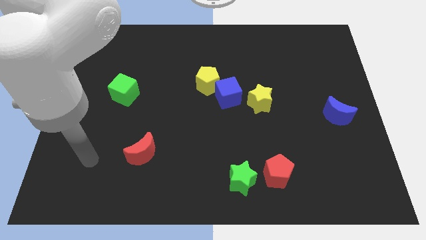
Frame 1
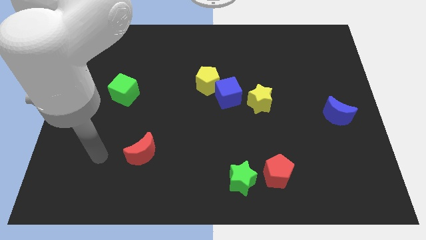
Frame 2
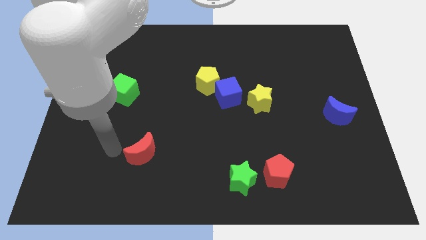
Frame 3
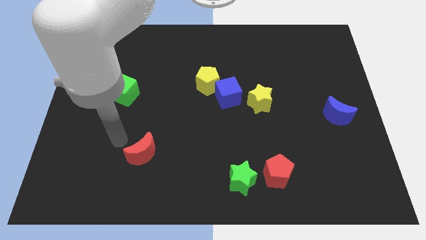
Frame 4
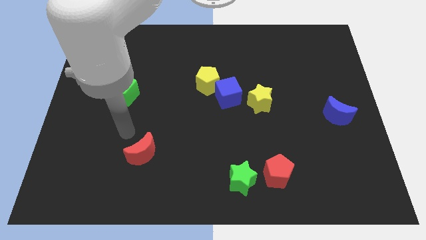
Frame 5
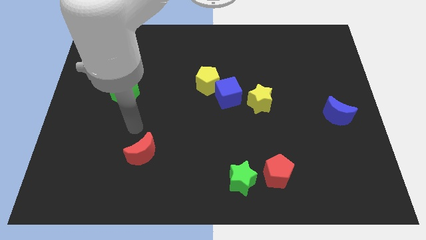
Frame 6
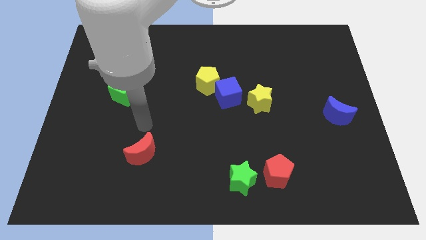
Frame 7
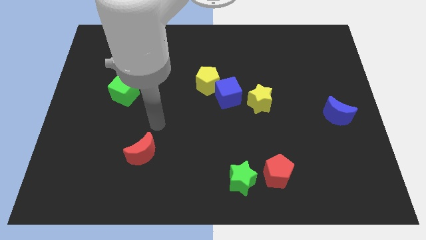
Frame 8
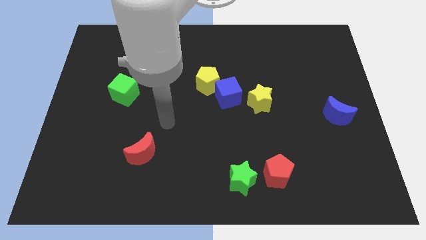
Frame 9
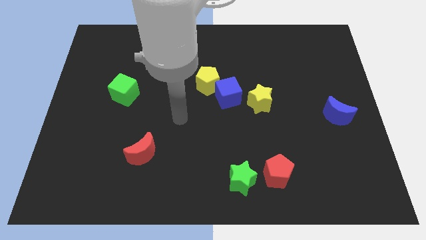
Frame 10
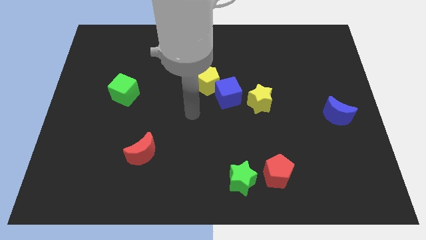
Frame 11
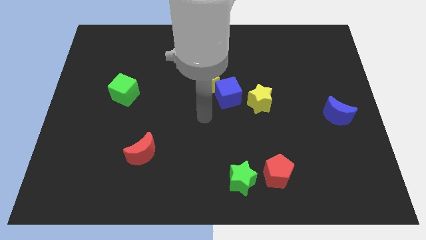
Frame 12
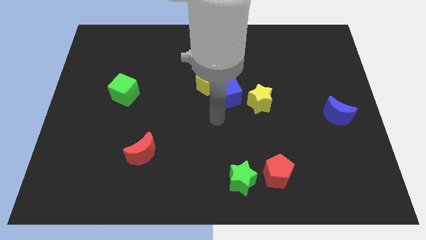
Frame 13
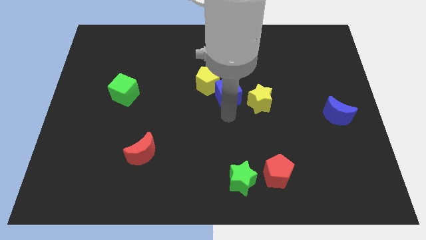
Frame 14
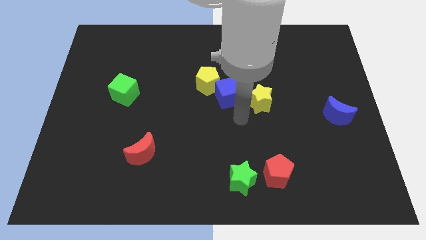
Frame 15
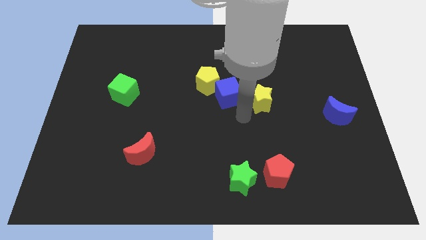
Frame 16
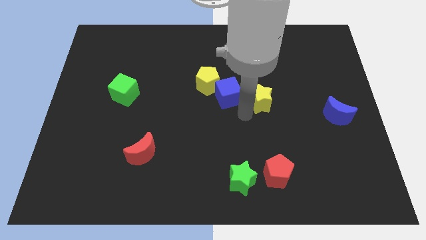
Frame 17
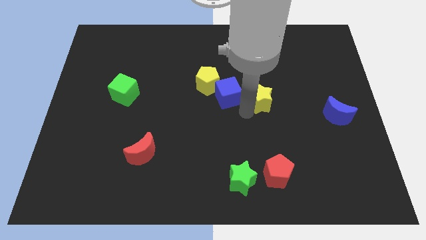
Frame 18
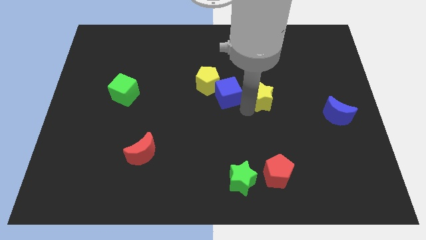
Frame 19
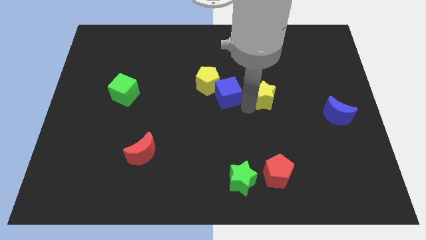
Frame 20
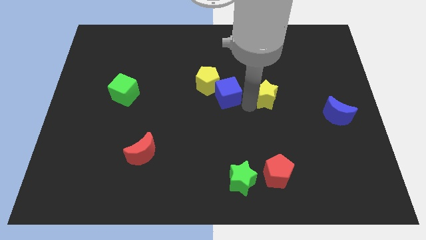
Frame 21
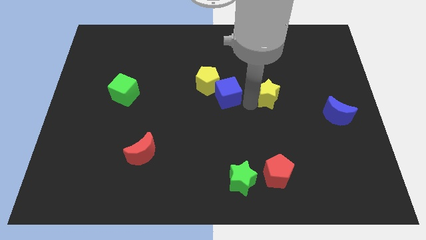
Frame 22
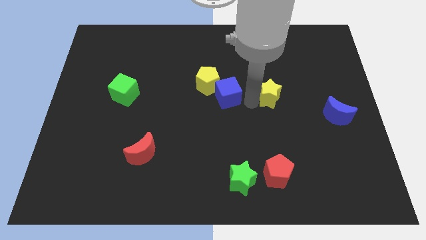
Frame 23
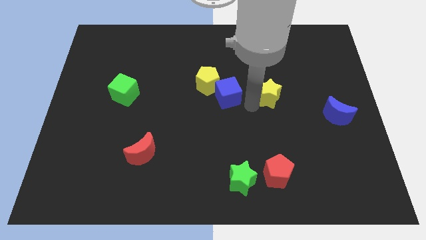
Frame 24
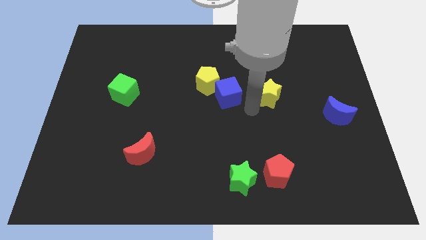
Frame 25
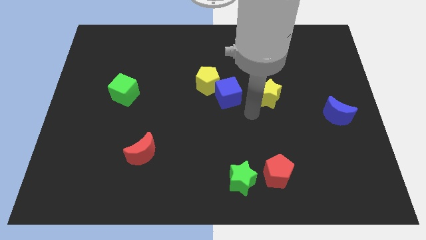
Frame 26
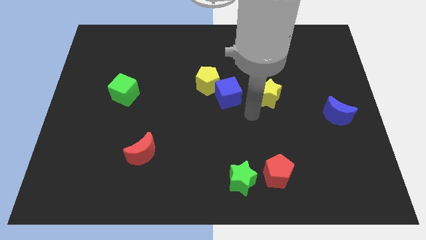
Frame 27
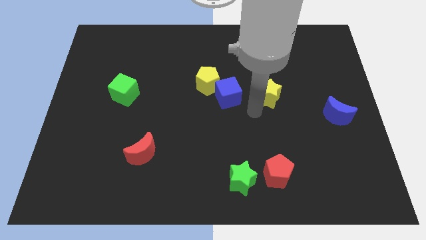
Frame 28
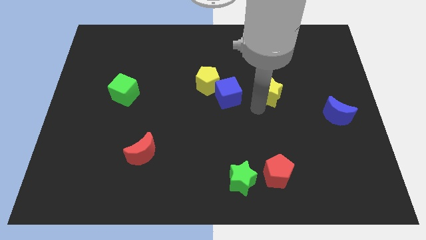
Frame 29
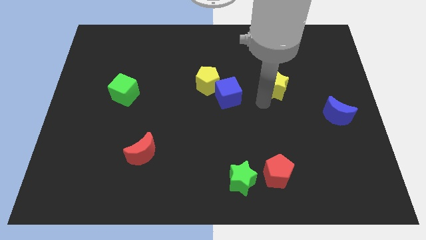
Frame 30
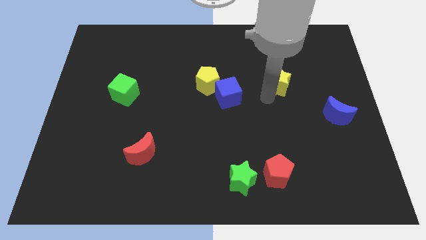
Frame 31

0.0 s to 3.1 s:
move the yellow star upwards and then to the right a bit

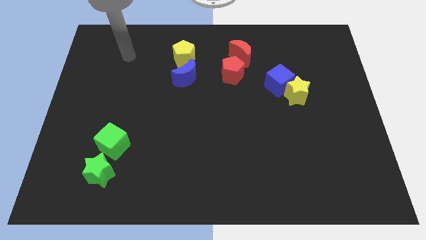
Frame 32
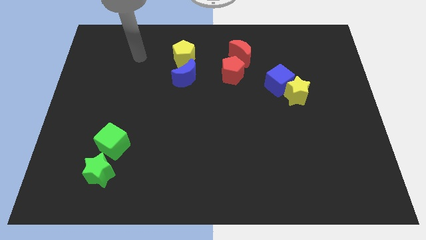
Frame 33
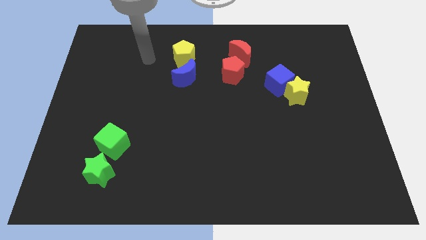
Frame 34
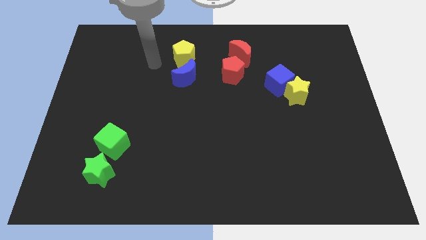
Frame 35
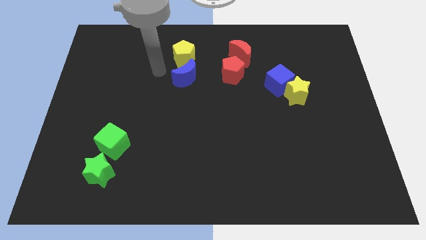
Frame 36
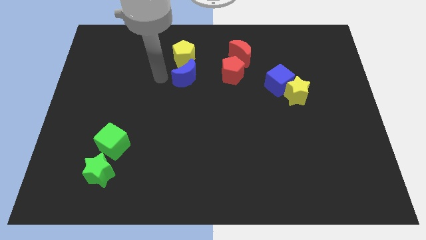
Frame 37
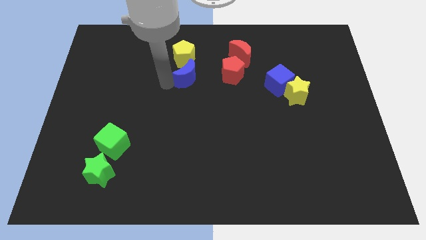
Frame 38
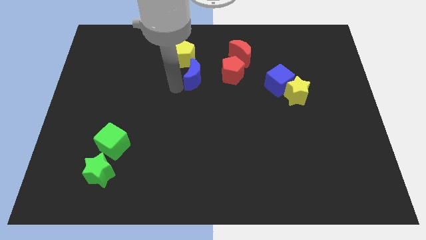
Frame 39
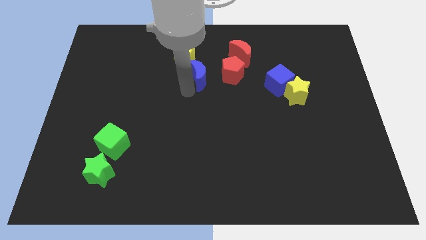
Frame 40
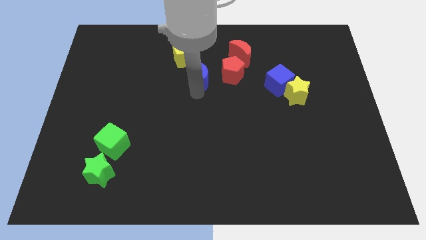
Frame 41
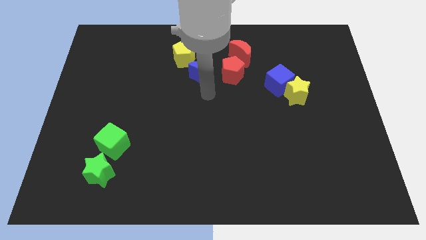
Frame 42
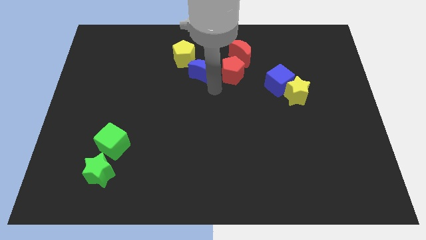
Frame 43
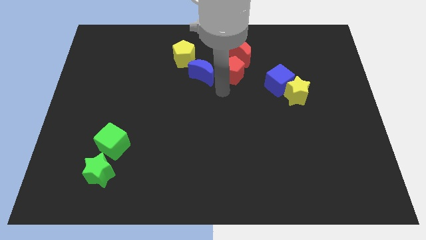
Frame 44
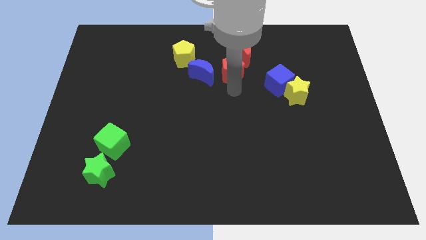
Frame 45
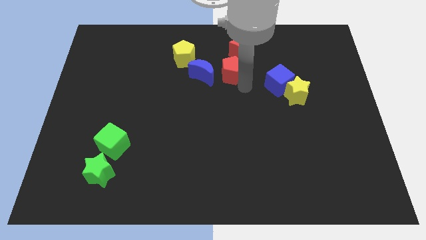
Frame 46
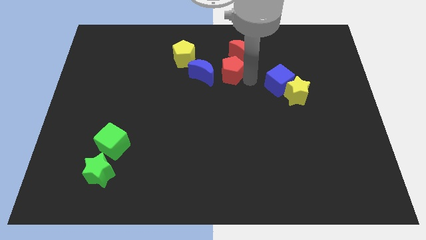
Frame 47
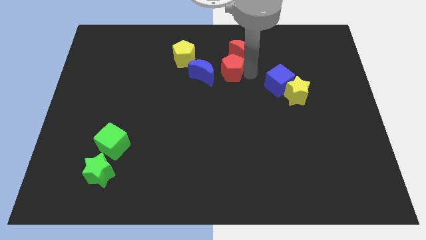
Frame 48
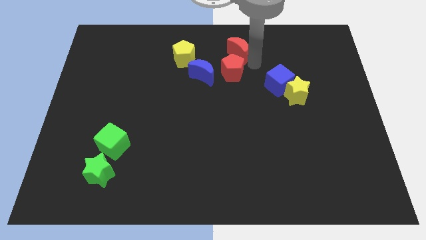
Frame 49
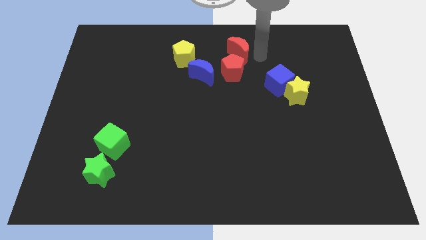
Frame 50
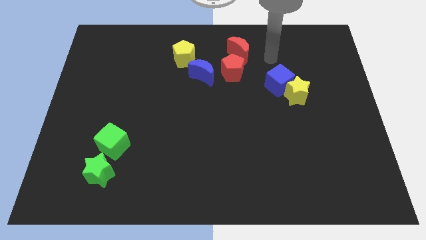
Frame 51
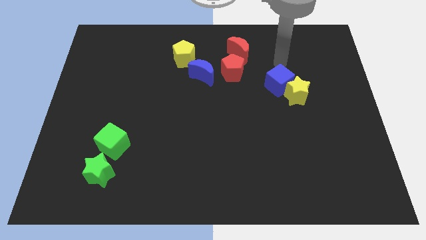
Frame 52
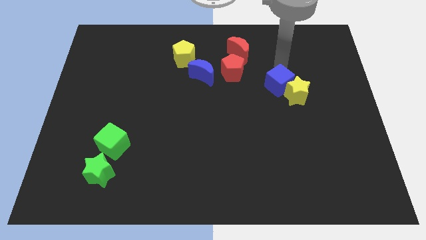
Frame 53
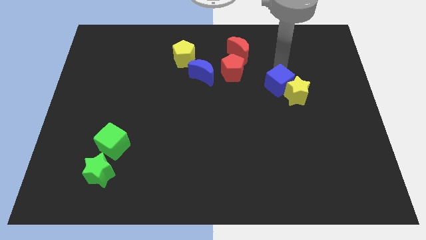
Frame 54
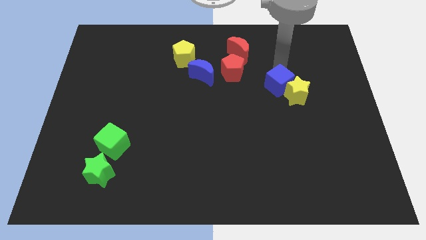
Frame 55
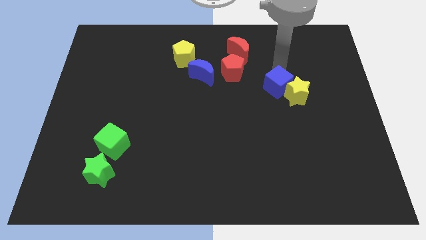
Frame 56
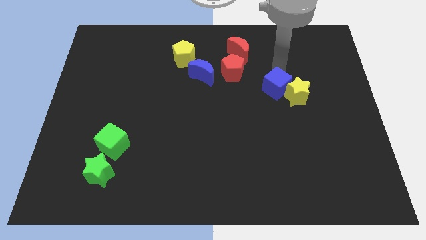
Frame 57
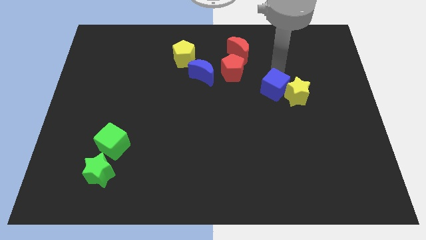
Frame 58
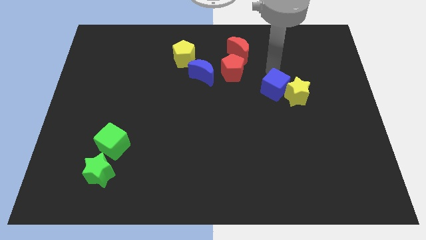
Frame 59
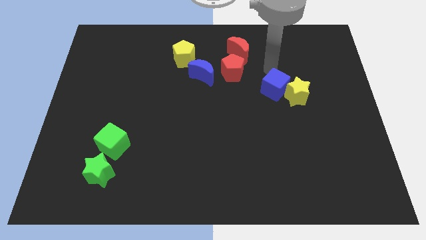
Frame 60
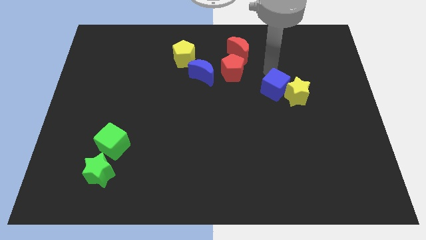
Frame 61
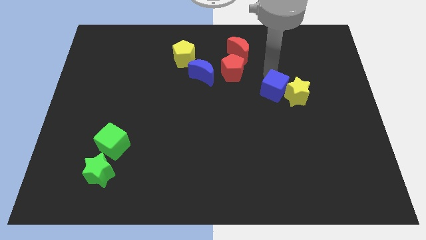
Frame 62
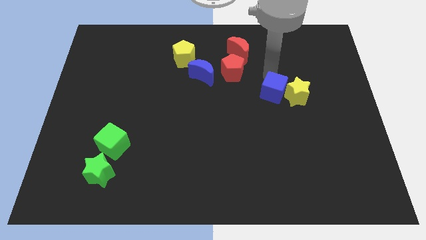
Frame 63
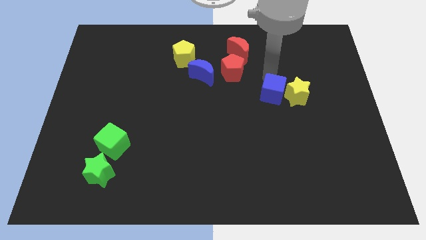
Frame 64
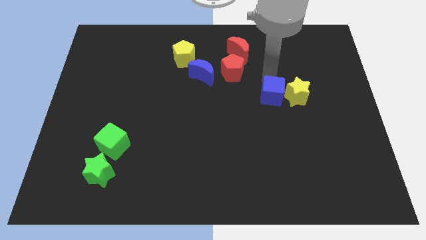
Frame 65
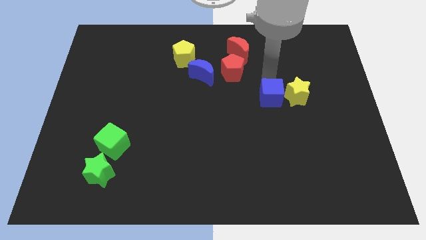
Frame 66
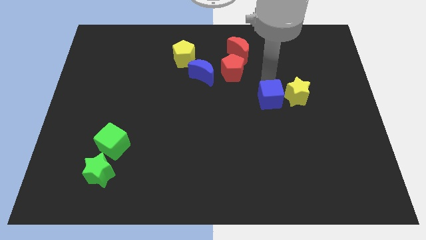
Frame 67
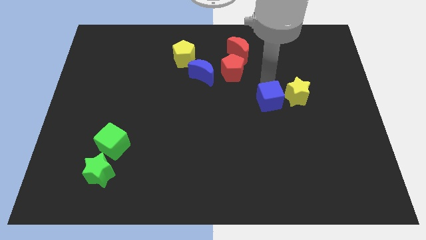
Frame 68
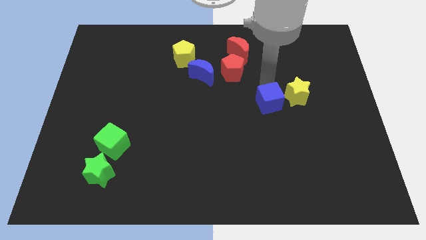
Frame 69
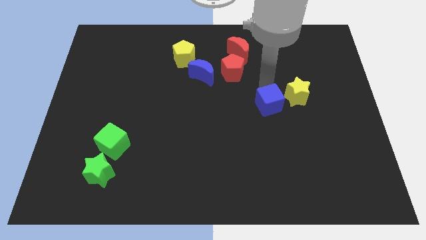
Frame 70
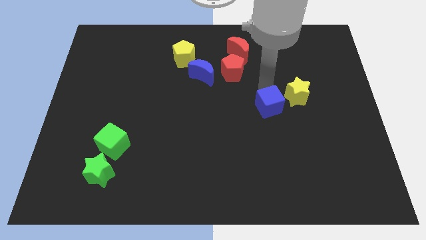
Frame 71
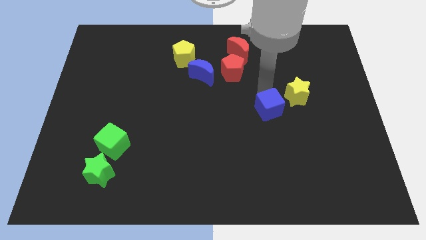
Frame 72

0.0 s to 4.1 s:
slightly slide the blue cube downwards

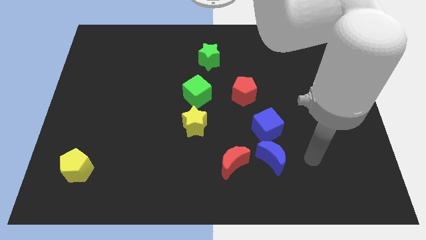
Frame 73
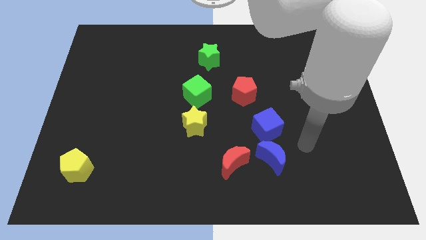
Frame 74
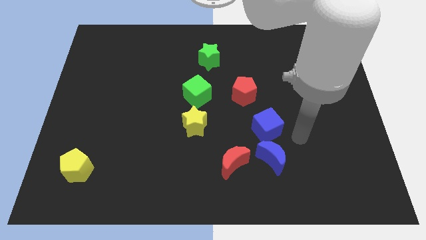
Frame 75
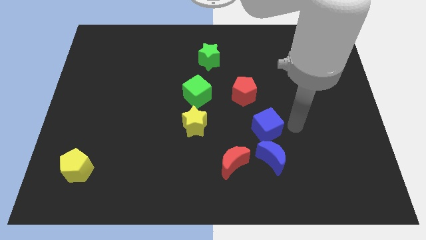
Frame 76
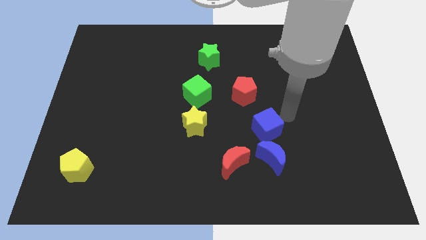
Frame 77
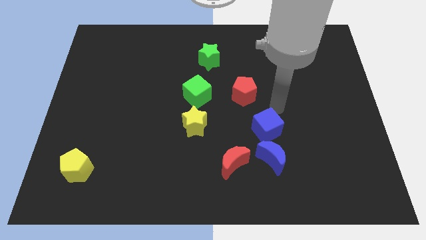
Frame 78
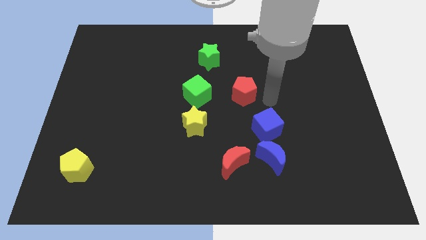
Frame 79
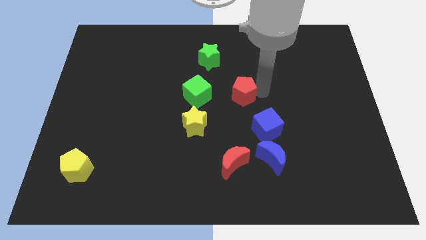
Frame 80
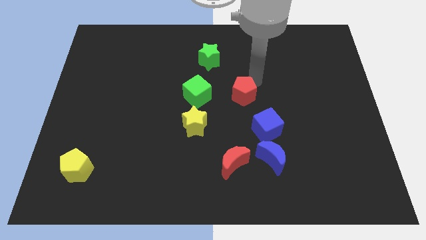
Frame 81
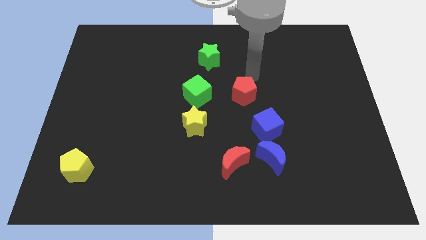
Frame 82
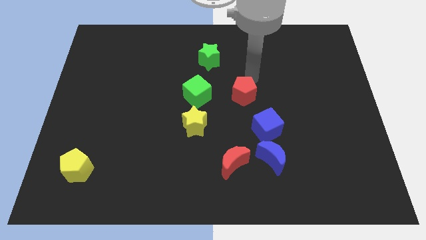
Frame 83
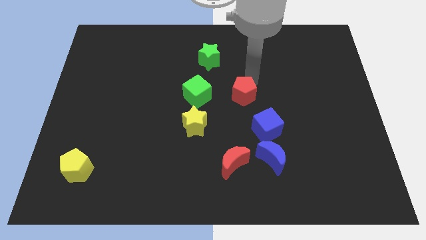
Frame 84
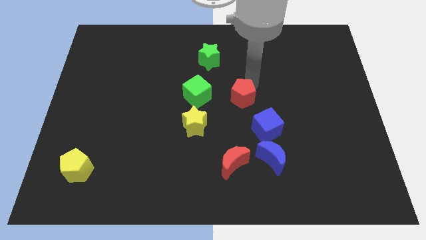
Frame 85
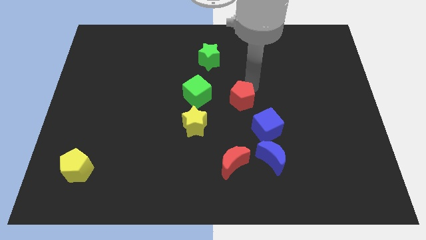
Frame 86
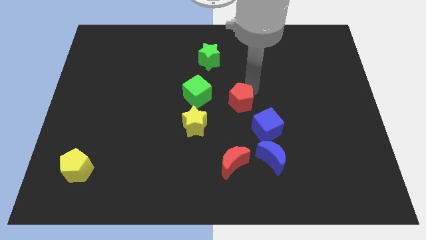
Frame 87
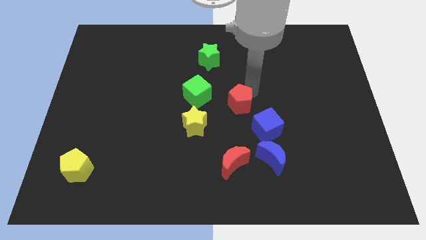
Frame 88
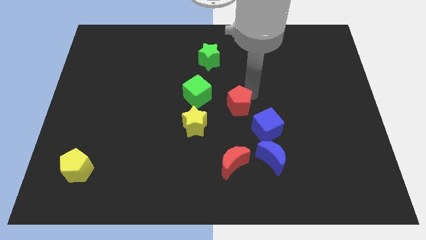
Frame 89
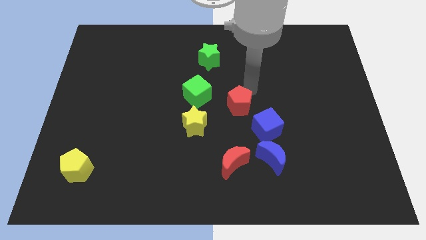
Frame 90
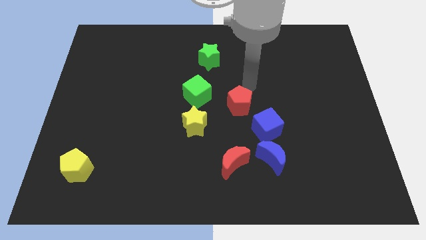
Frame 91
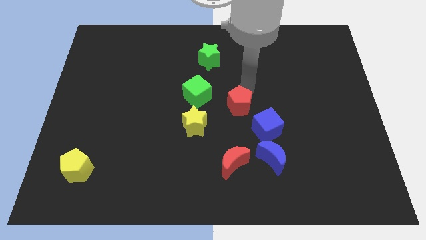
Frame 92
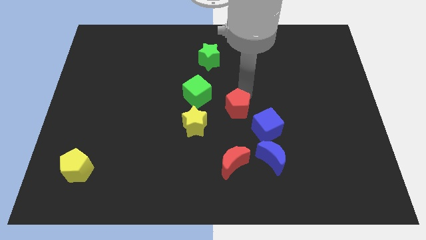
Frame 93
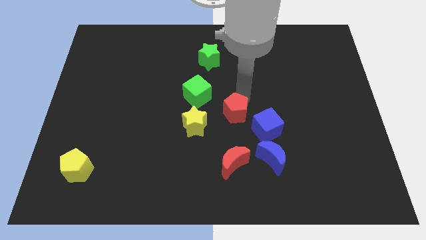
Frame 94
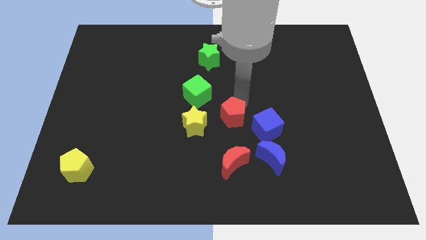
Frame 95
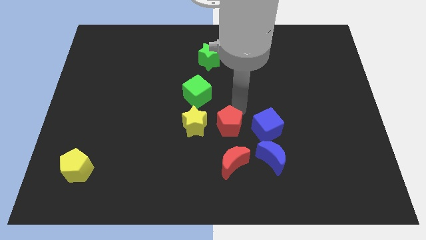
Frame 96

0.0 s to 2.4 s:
slide the red pentagon a little bit down and to the left
